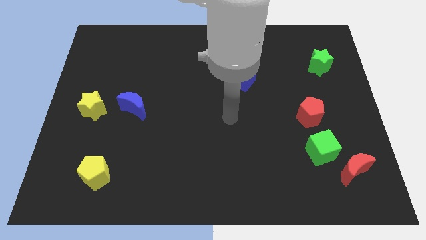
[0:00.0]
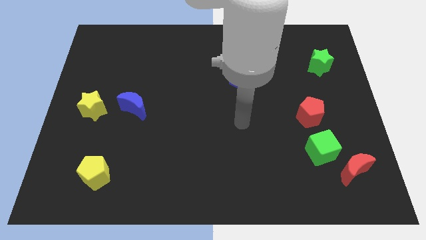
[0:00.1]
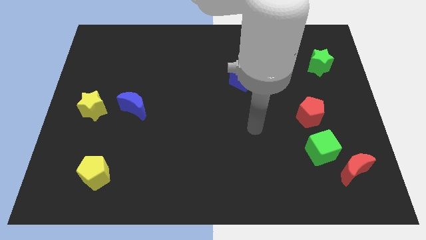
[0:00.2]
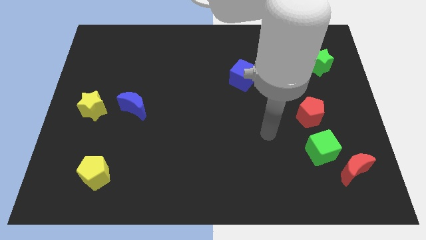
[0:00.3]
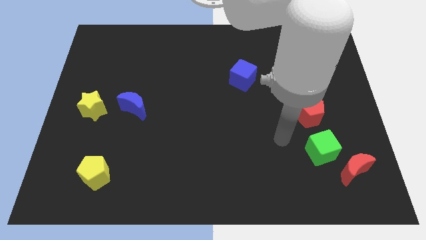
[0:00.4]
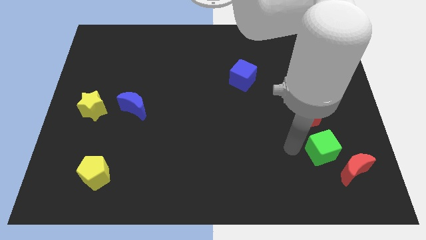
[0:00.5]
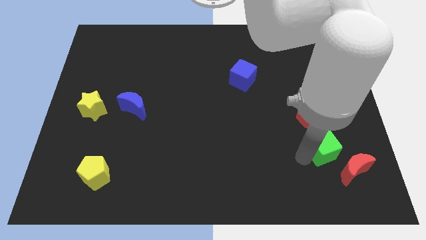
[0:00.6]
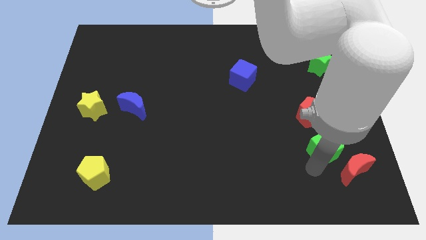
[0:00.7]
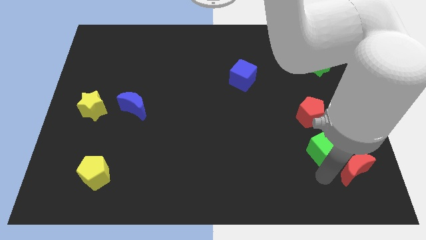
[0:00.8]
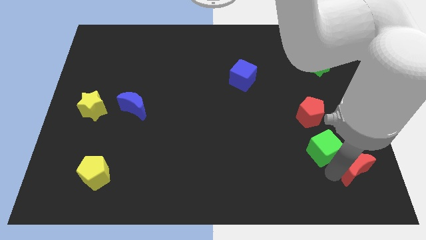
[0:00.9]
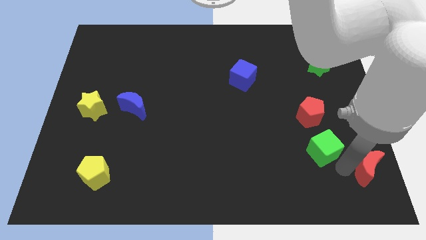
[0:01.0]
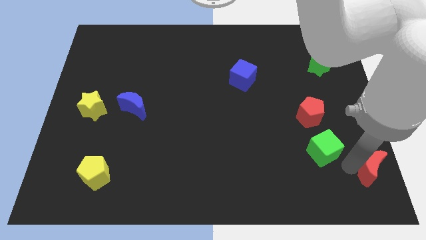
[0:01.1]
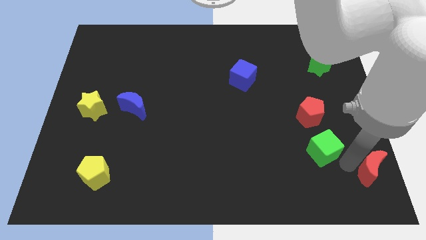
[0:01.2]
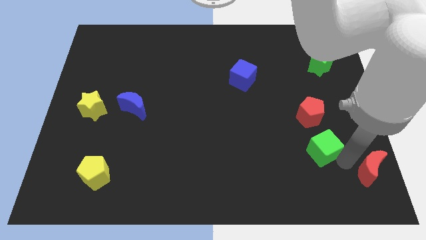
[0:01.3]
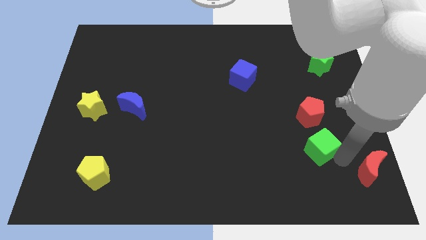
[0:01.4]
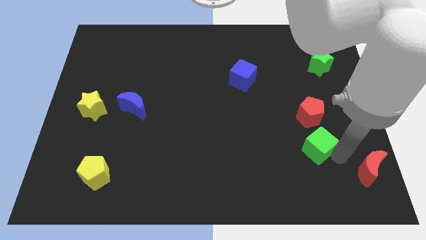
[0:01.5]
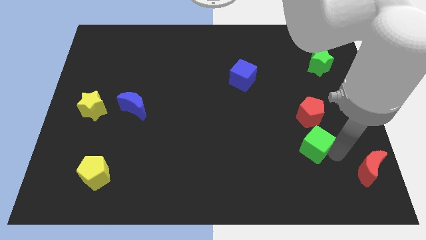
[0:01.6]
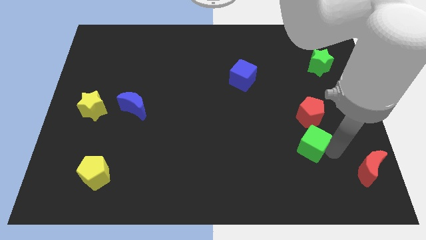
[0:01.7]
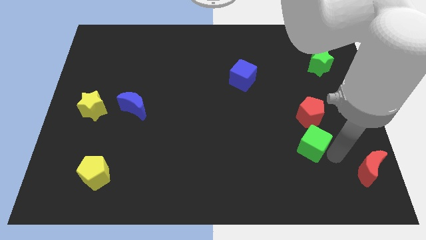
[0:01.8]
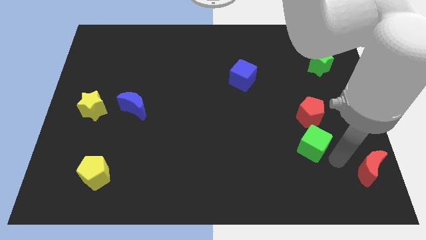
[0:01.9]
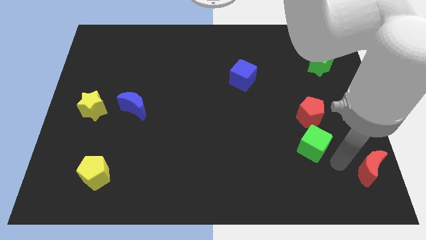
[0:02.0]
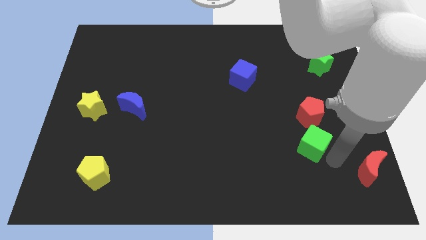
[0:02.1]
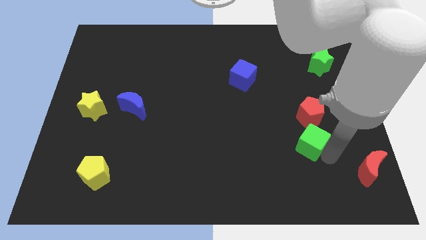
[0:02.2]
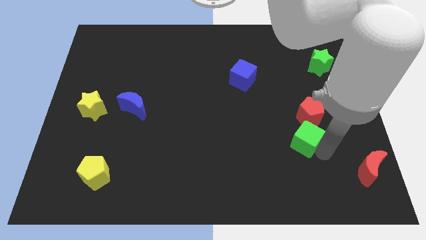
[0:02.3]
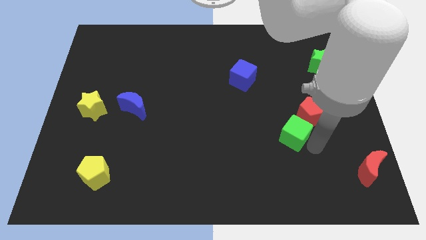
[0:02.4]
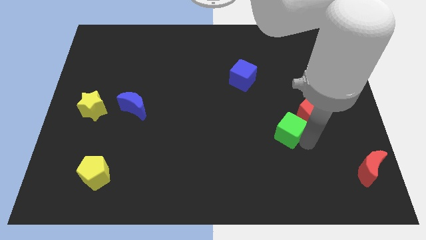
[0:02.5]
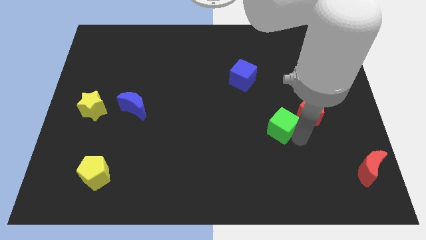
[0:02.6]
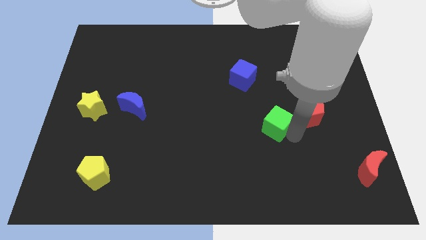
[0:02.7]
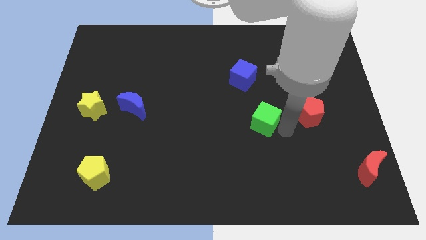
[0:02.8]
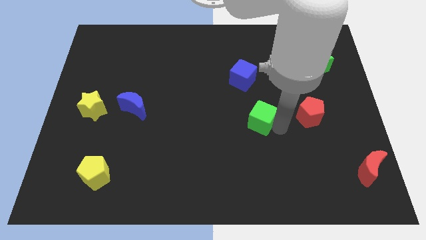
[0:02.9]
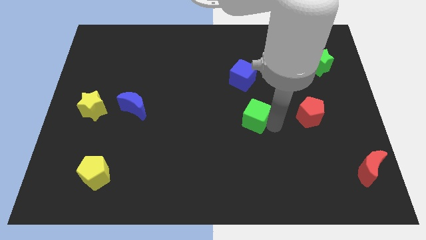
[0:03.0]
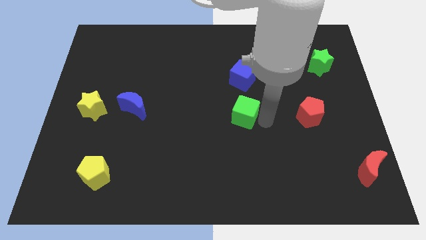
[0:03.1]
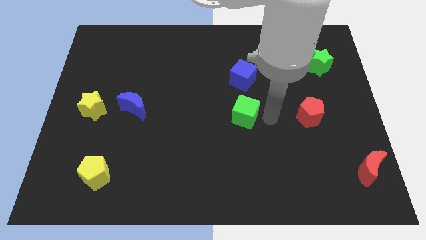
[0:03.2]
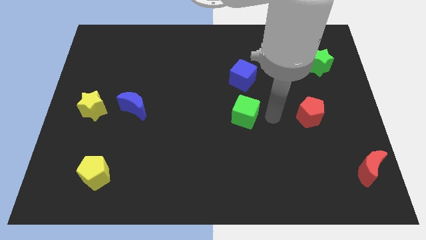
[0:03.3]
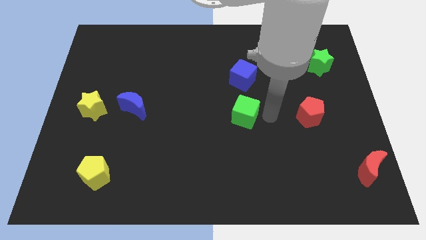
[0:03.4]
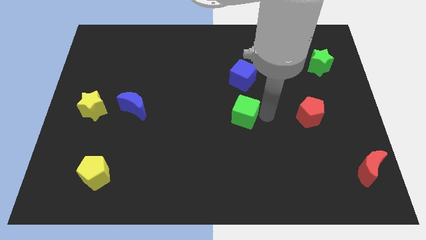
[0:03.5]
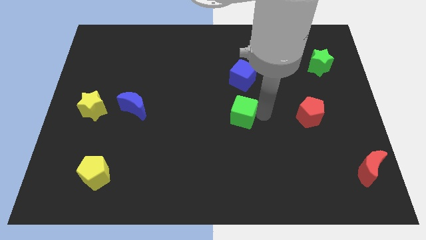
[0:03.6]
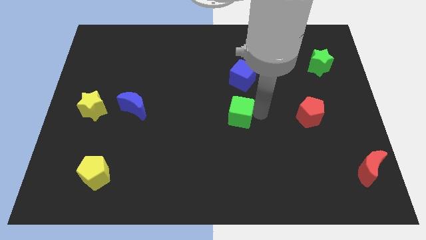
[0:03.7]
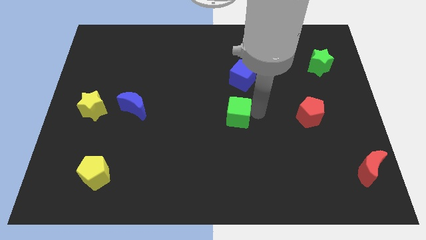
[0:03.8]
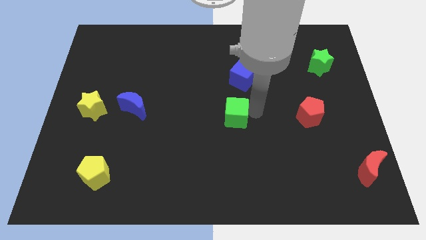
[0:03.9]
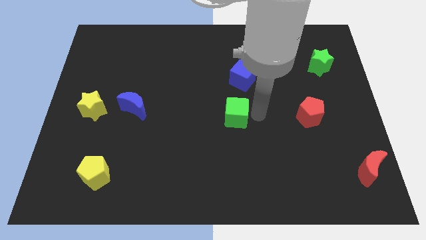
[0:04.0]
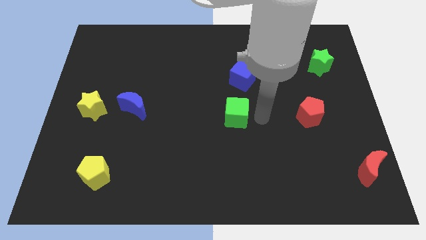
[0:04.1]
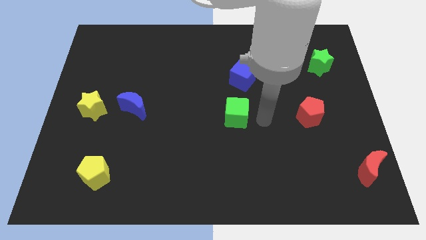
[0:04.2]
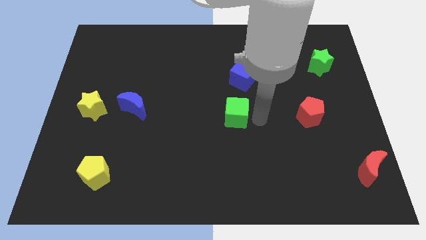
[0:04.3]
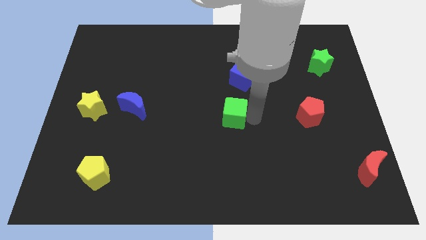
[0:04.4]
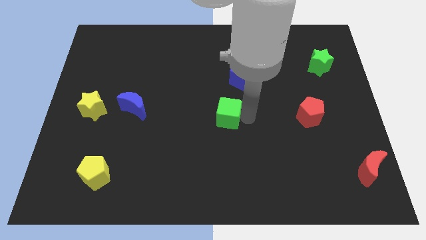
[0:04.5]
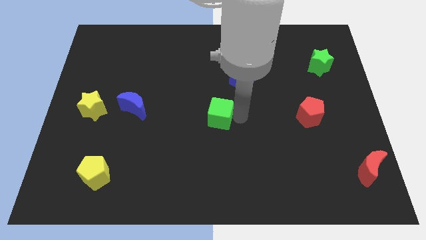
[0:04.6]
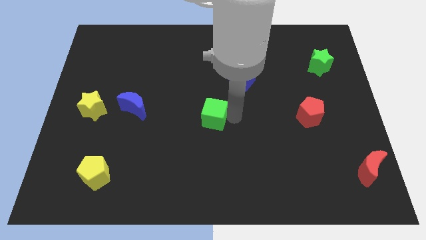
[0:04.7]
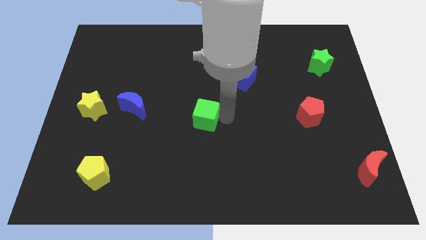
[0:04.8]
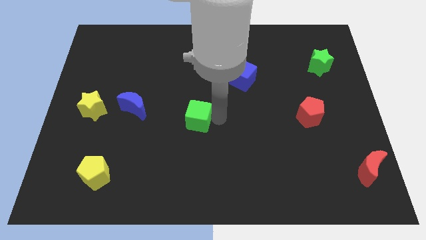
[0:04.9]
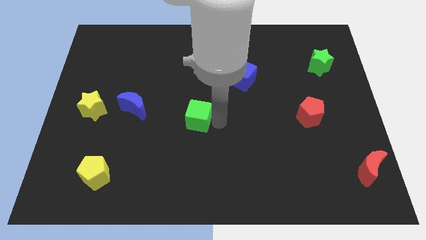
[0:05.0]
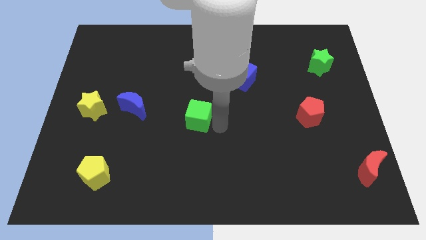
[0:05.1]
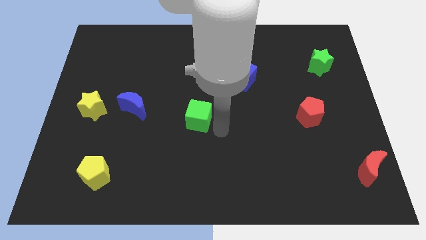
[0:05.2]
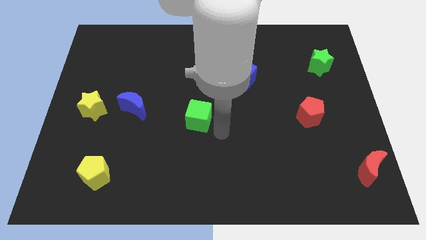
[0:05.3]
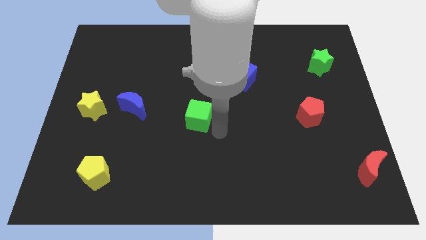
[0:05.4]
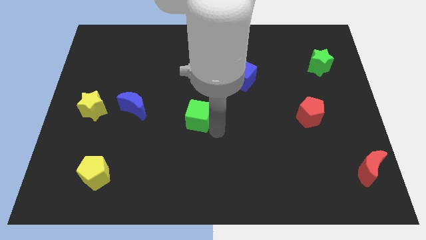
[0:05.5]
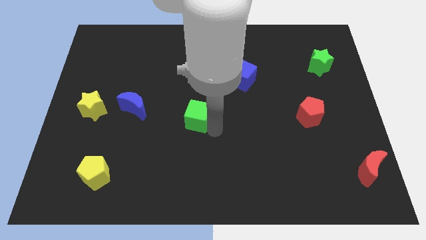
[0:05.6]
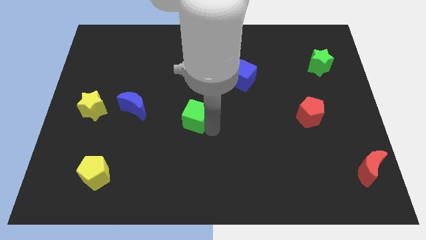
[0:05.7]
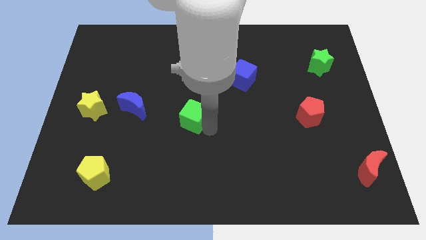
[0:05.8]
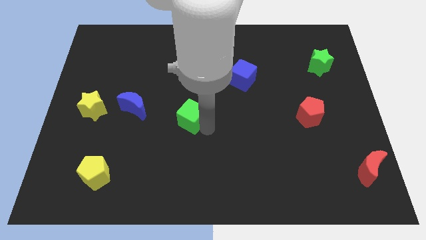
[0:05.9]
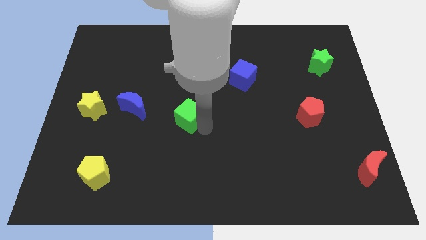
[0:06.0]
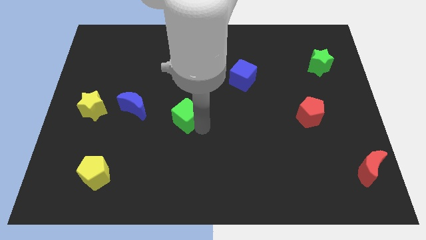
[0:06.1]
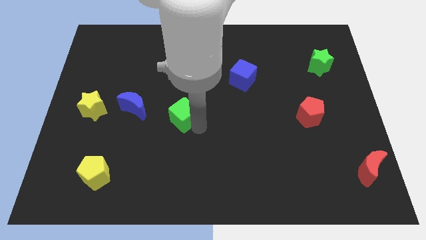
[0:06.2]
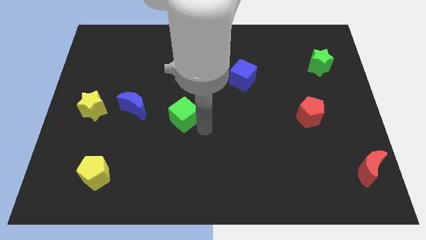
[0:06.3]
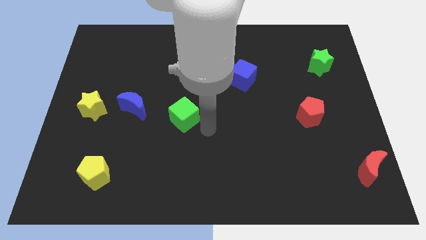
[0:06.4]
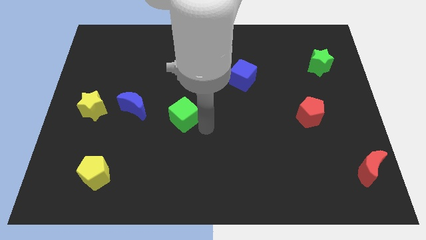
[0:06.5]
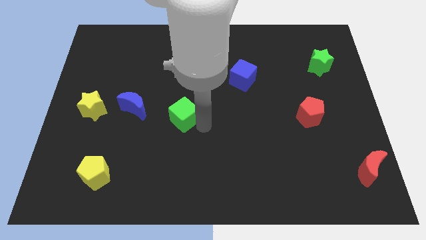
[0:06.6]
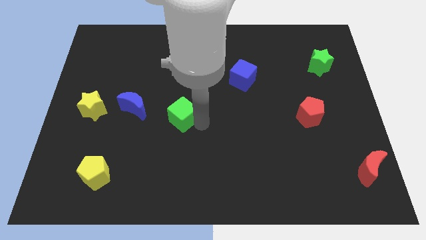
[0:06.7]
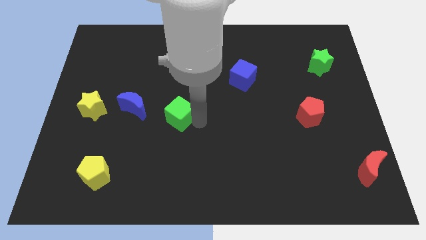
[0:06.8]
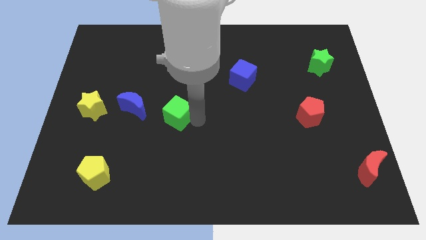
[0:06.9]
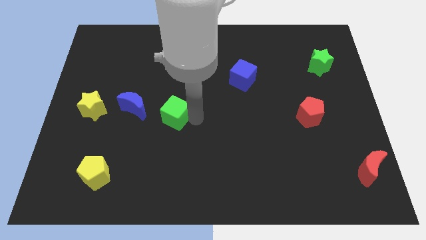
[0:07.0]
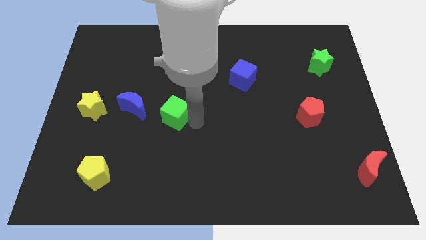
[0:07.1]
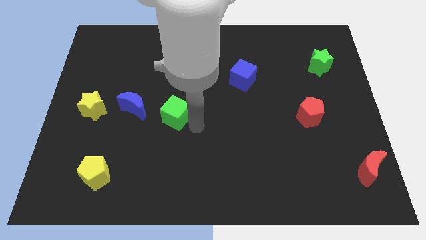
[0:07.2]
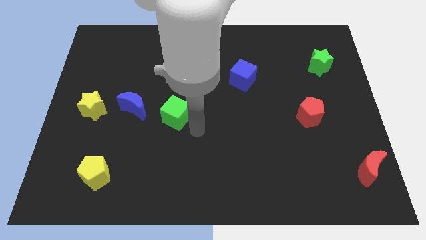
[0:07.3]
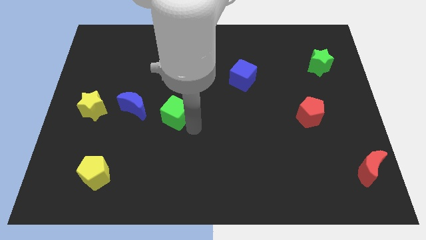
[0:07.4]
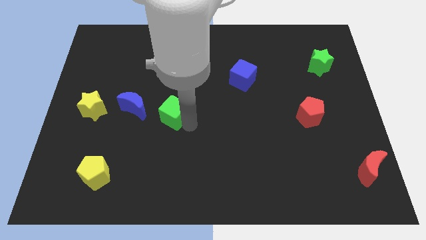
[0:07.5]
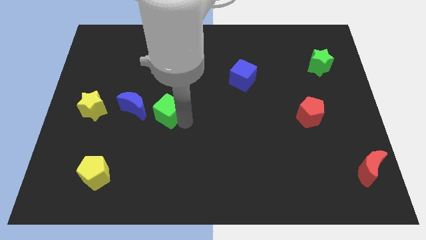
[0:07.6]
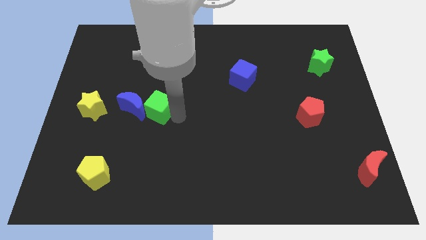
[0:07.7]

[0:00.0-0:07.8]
move the green cube close to the blue moon
